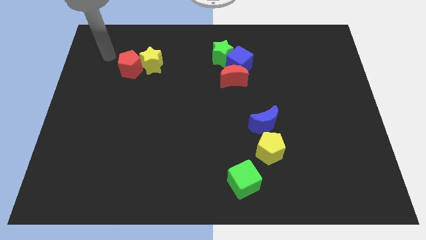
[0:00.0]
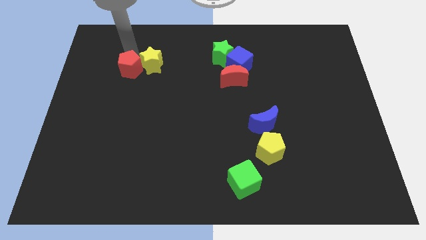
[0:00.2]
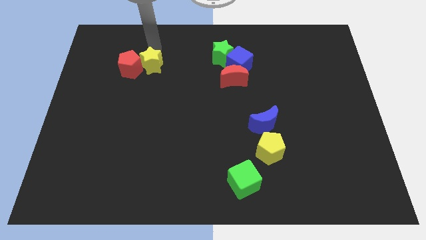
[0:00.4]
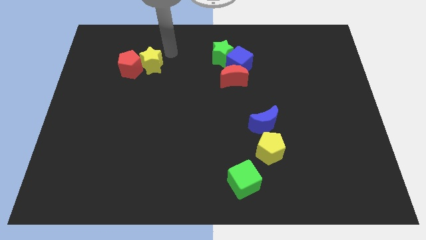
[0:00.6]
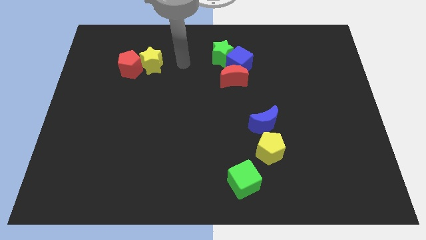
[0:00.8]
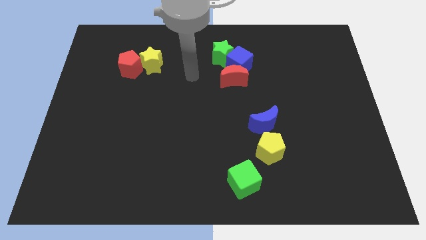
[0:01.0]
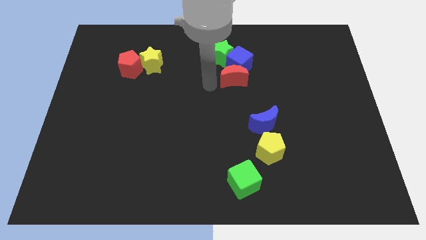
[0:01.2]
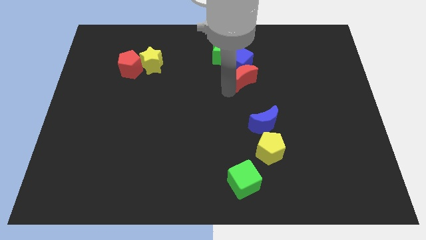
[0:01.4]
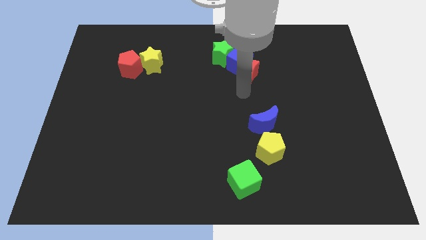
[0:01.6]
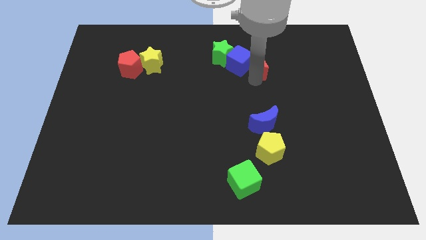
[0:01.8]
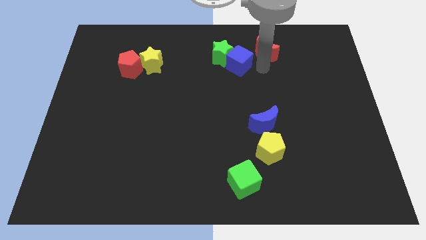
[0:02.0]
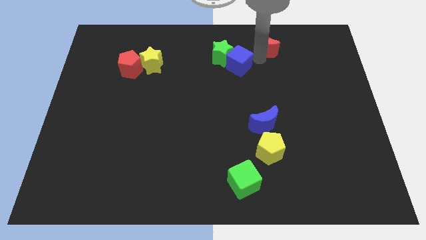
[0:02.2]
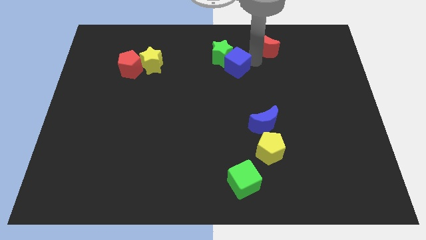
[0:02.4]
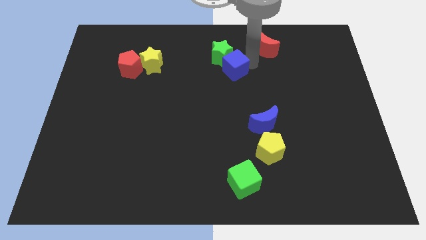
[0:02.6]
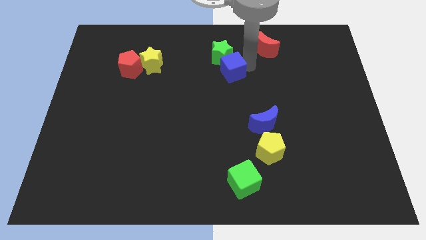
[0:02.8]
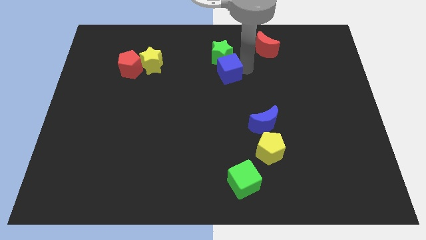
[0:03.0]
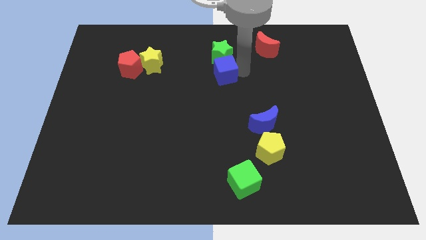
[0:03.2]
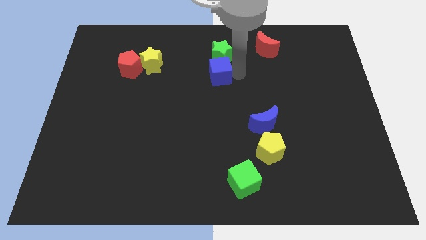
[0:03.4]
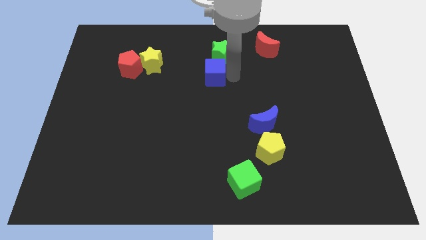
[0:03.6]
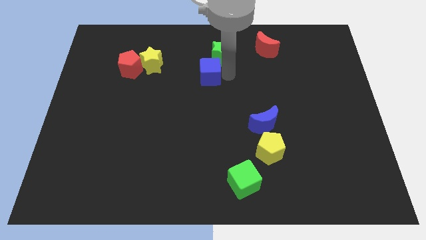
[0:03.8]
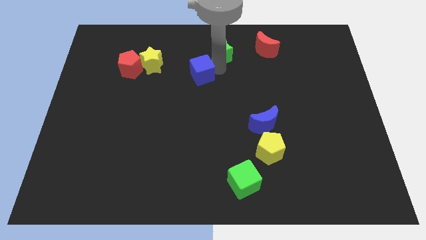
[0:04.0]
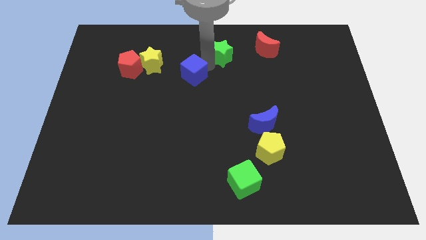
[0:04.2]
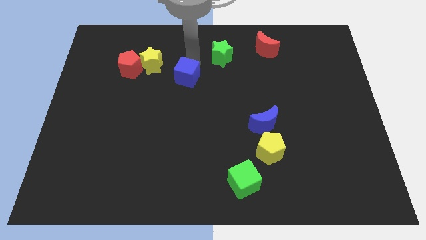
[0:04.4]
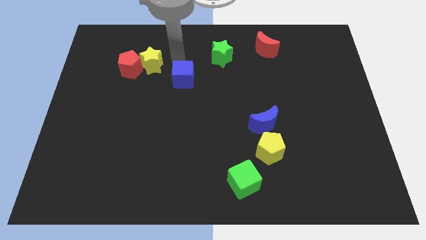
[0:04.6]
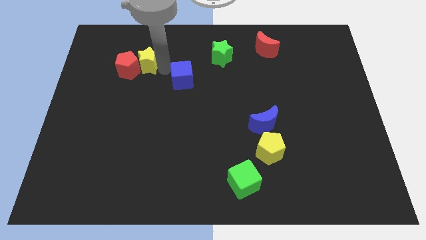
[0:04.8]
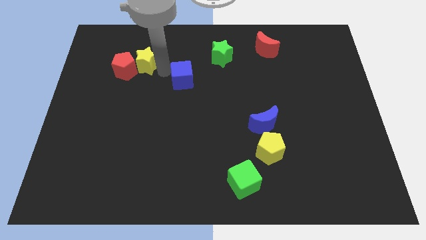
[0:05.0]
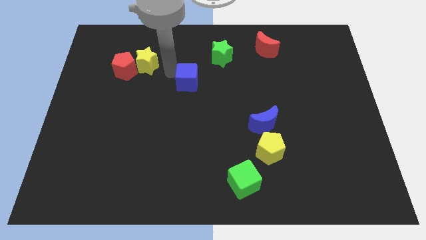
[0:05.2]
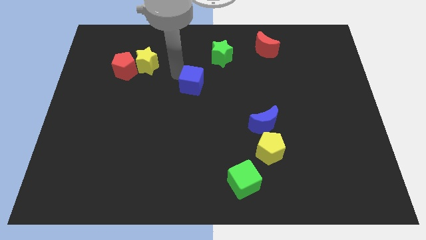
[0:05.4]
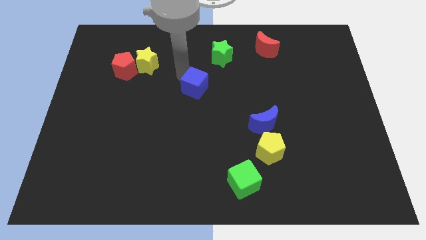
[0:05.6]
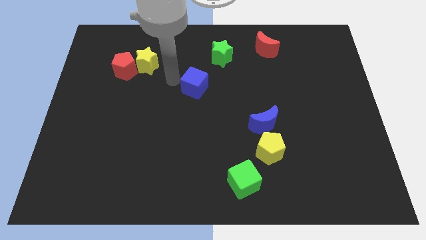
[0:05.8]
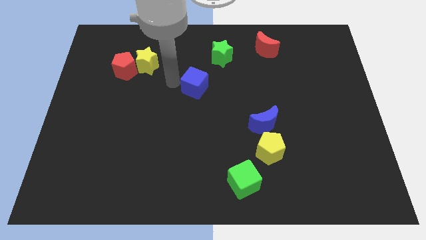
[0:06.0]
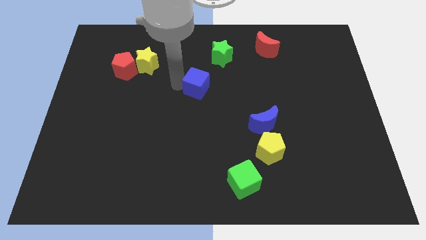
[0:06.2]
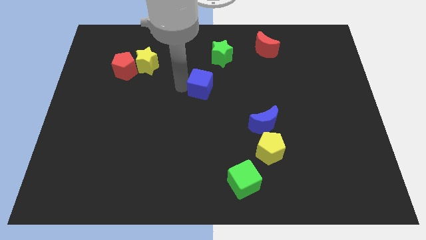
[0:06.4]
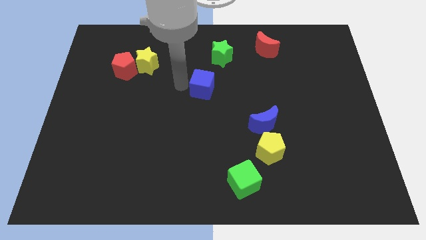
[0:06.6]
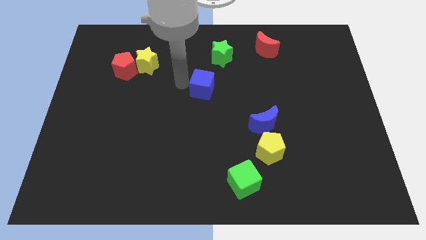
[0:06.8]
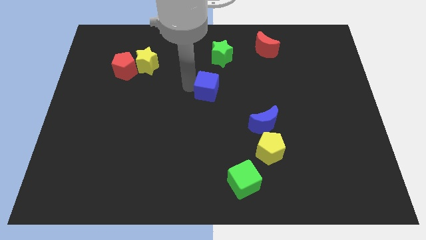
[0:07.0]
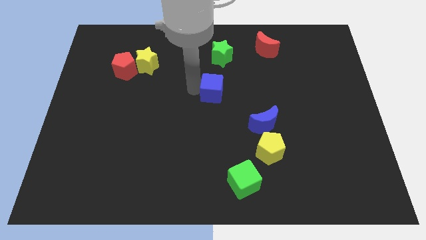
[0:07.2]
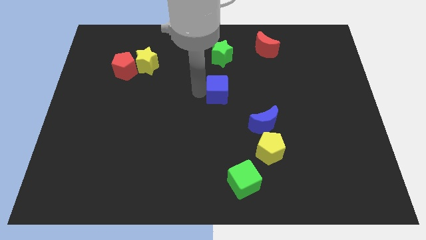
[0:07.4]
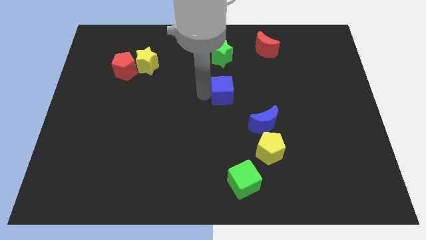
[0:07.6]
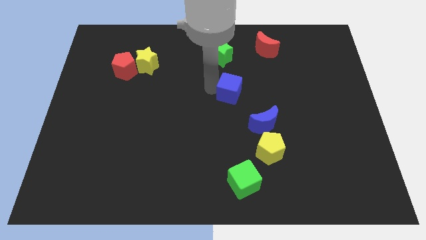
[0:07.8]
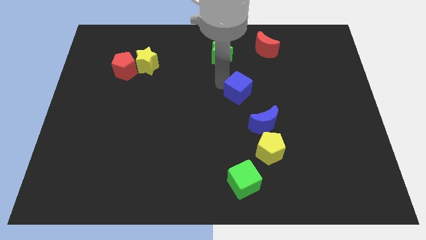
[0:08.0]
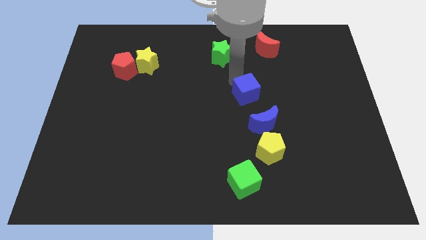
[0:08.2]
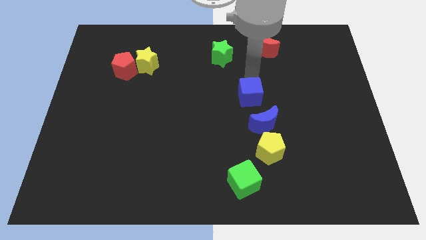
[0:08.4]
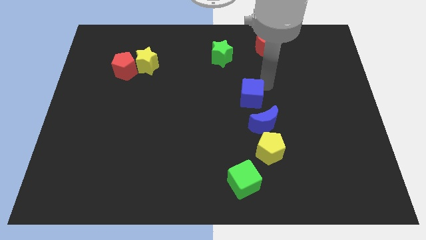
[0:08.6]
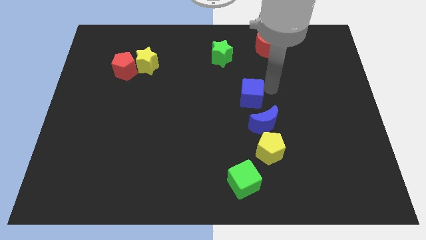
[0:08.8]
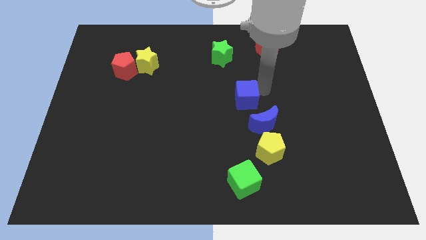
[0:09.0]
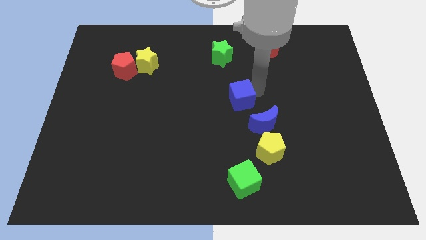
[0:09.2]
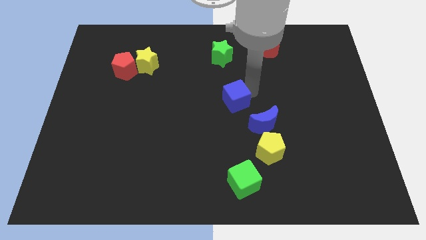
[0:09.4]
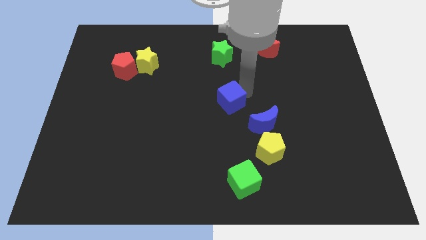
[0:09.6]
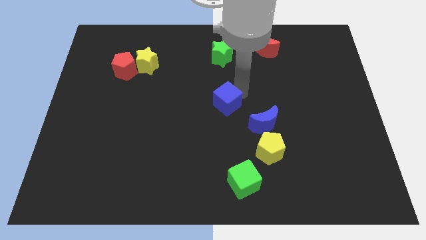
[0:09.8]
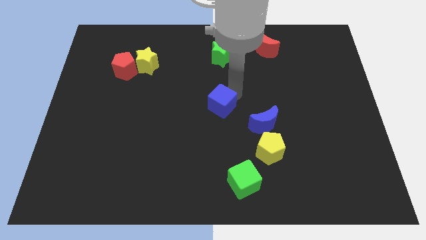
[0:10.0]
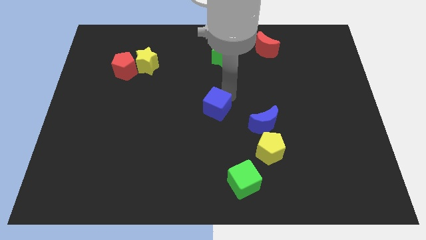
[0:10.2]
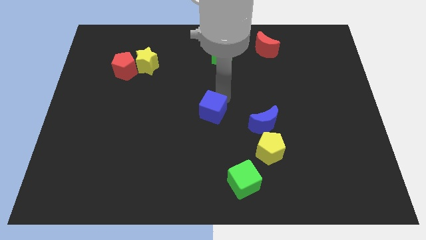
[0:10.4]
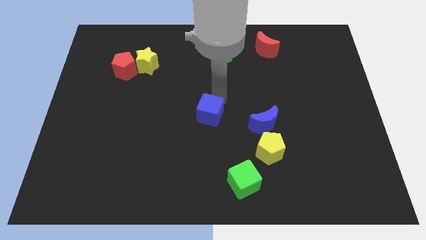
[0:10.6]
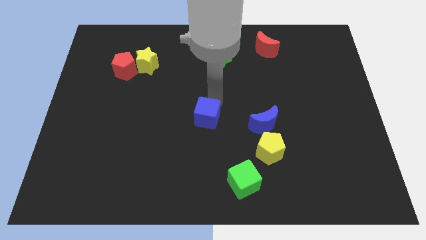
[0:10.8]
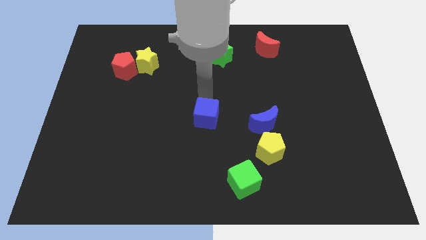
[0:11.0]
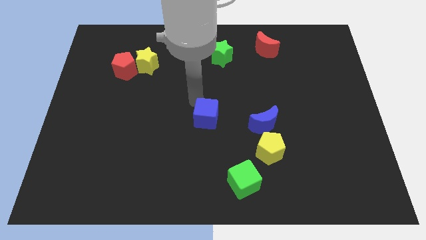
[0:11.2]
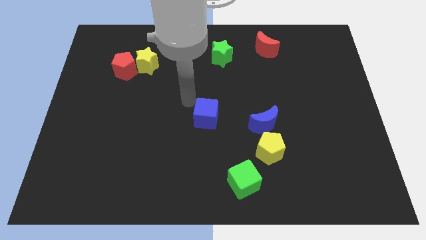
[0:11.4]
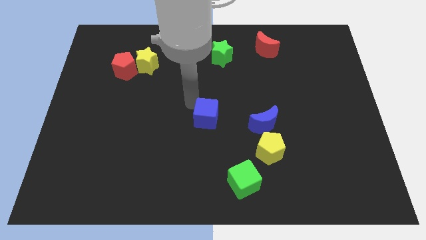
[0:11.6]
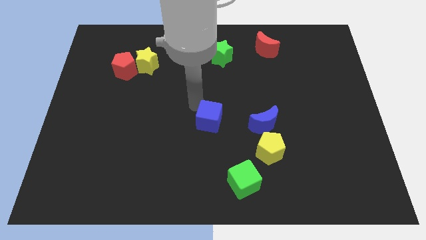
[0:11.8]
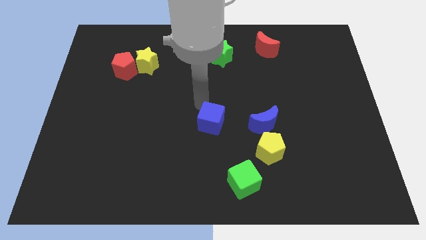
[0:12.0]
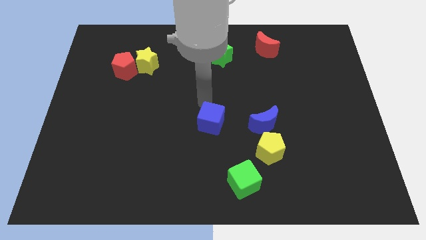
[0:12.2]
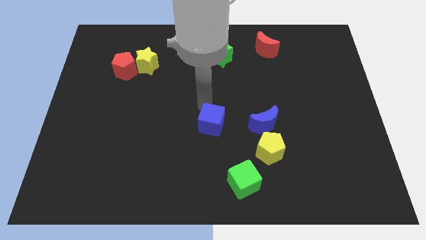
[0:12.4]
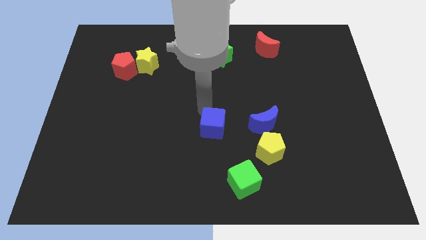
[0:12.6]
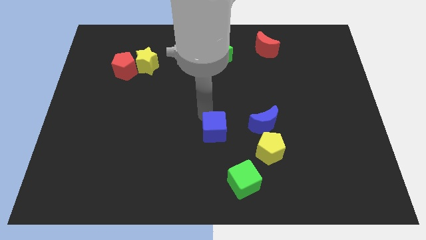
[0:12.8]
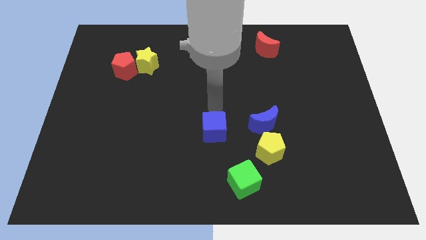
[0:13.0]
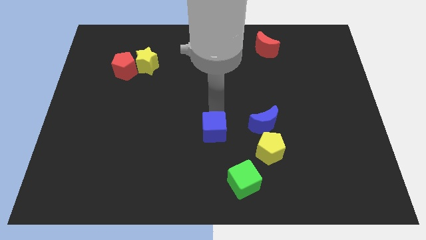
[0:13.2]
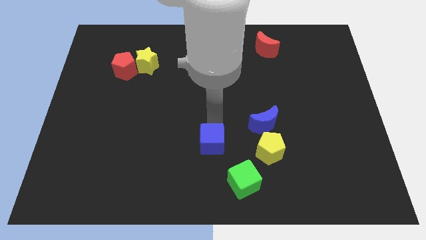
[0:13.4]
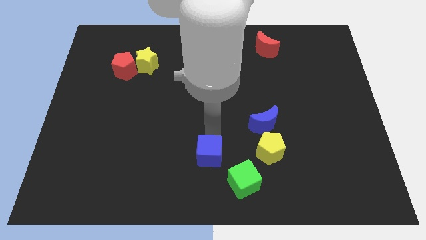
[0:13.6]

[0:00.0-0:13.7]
slide the blue cube to the bottom side

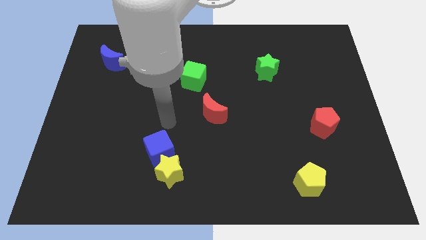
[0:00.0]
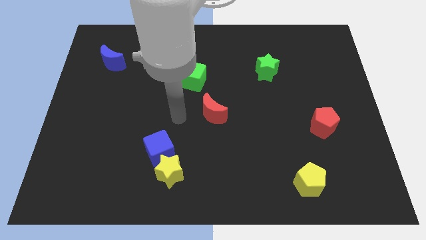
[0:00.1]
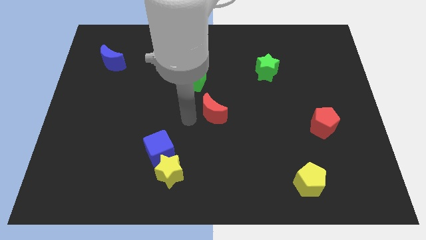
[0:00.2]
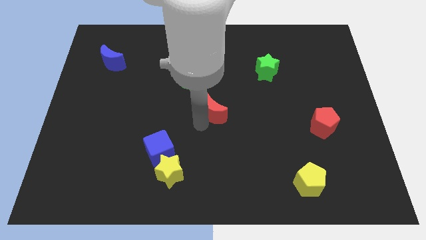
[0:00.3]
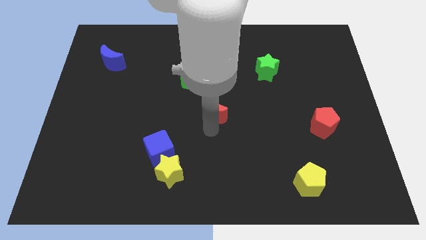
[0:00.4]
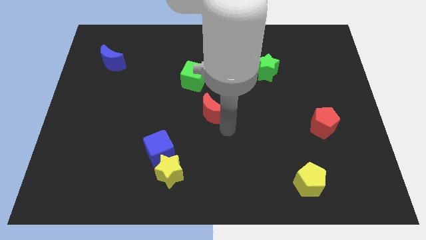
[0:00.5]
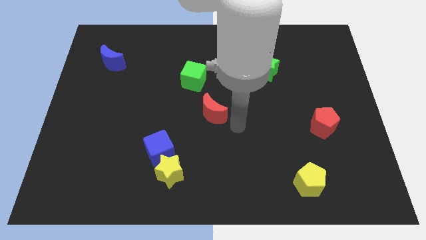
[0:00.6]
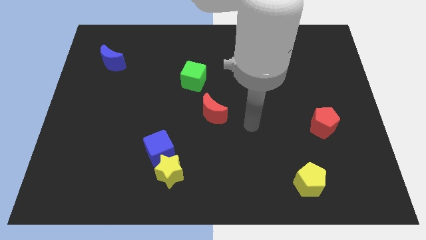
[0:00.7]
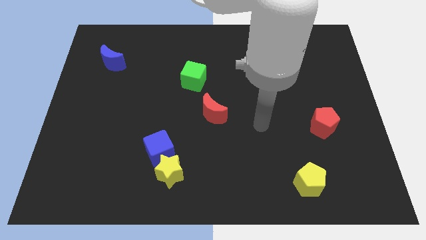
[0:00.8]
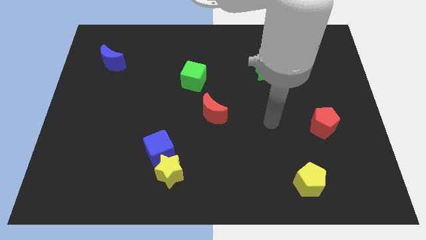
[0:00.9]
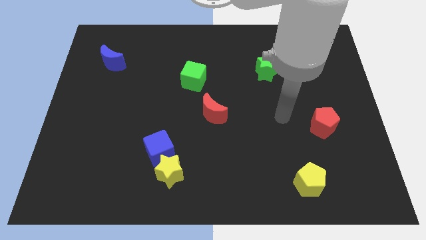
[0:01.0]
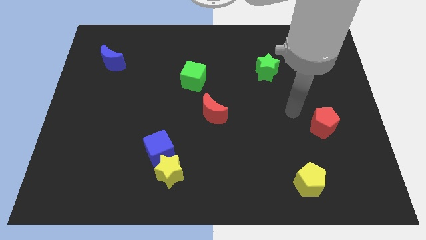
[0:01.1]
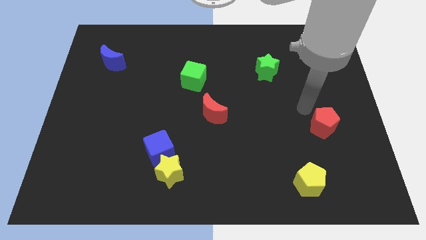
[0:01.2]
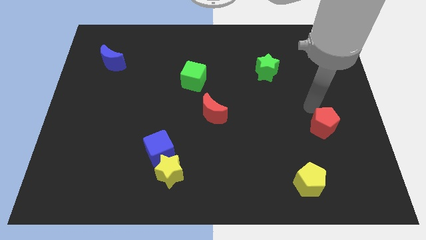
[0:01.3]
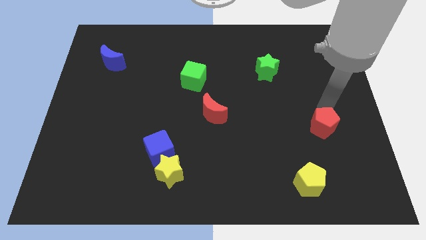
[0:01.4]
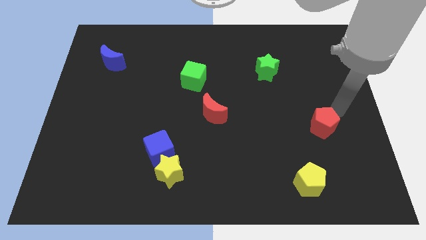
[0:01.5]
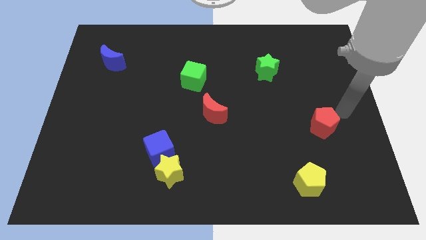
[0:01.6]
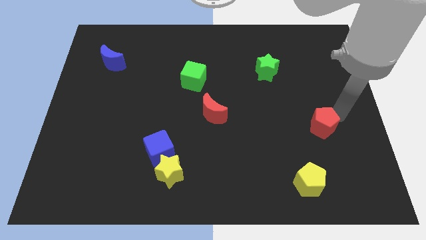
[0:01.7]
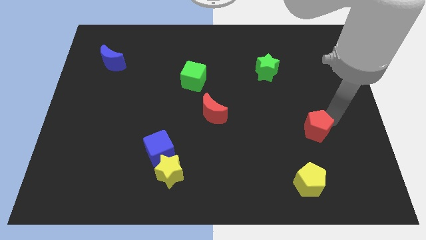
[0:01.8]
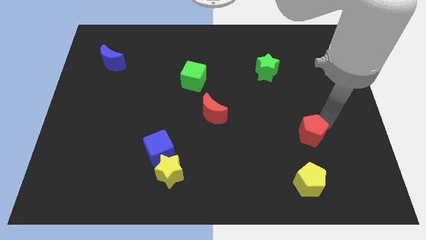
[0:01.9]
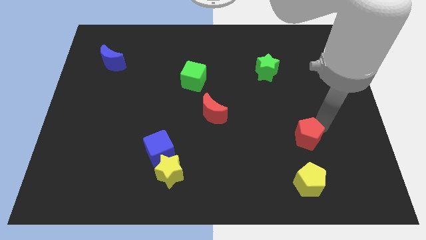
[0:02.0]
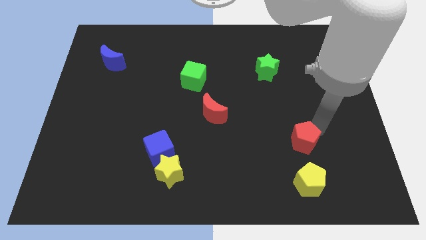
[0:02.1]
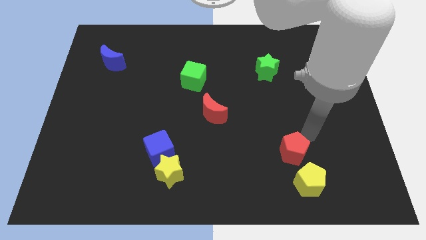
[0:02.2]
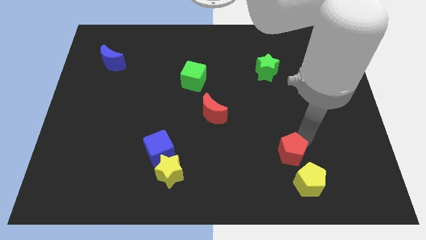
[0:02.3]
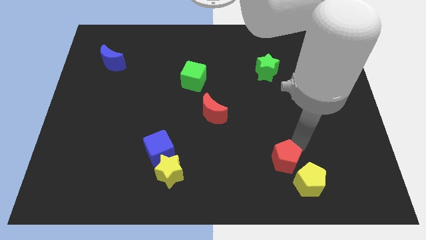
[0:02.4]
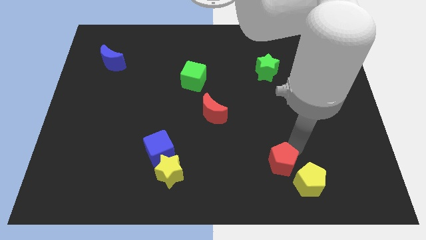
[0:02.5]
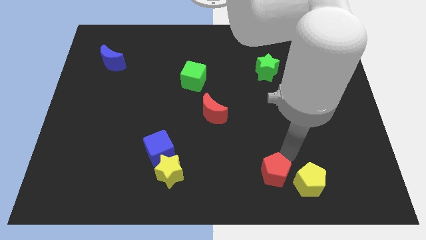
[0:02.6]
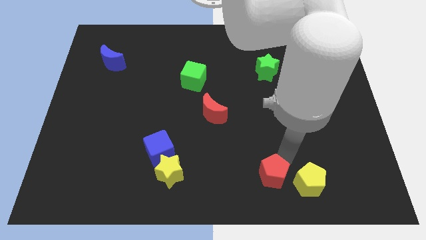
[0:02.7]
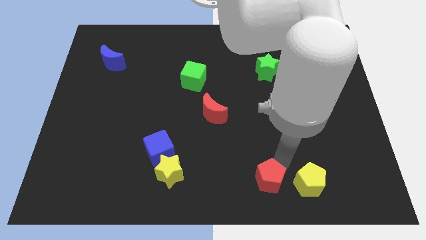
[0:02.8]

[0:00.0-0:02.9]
move the red pentagon to the bottom
